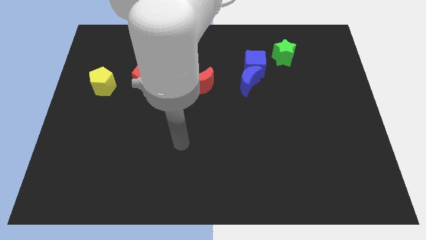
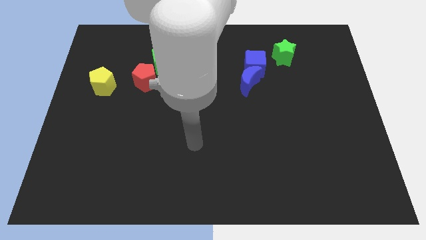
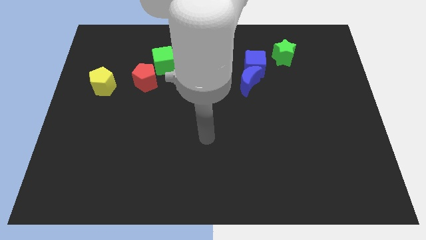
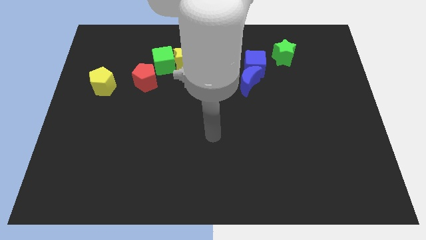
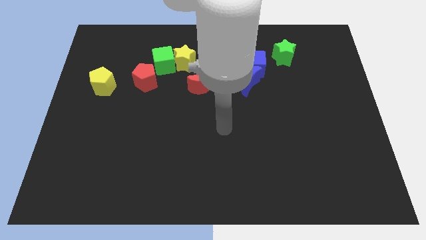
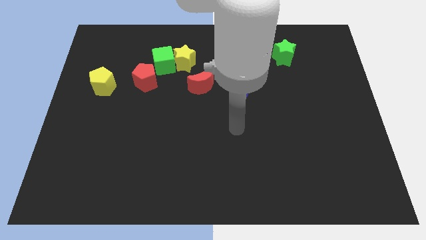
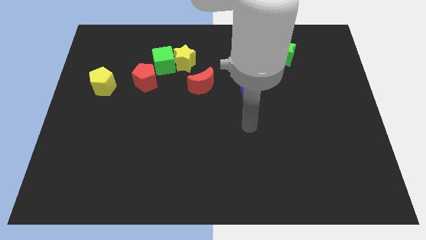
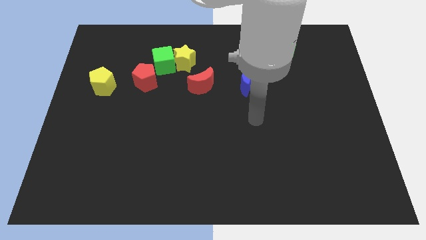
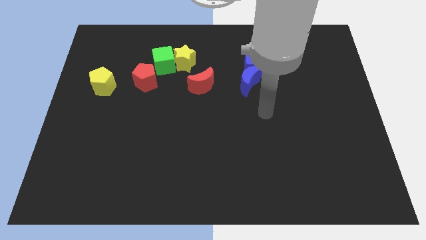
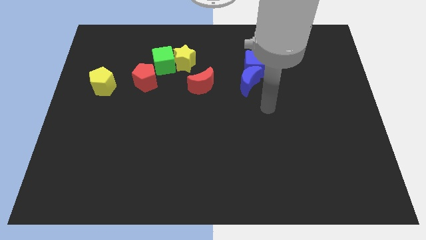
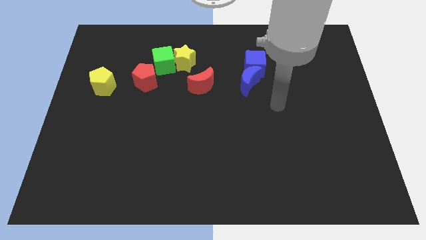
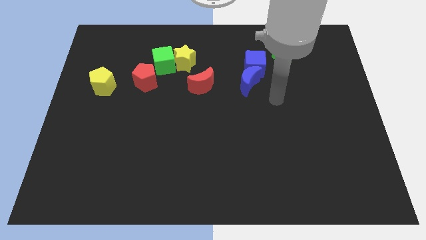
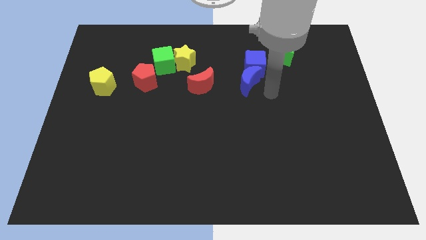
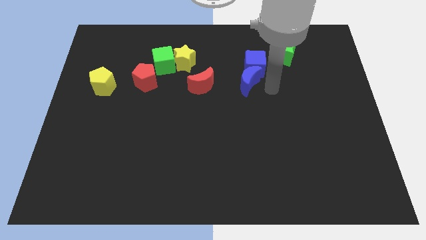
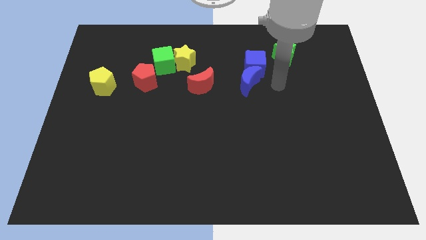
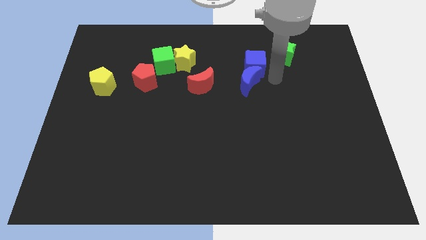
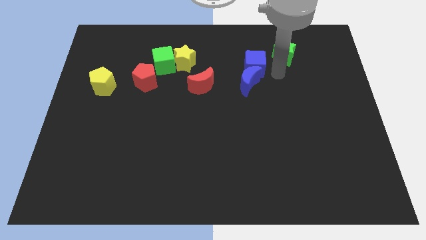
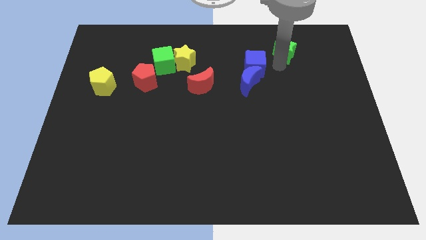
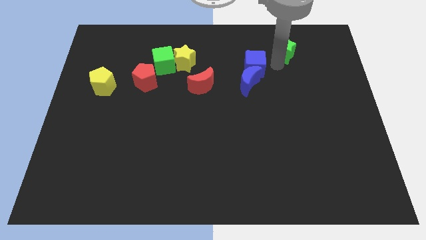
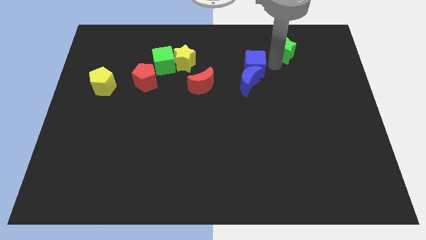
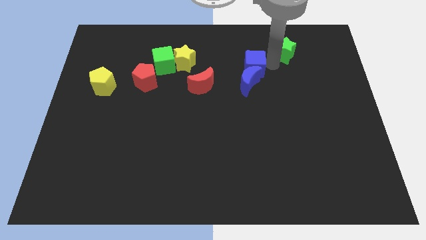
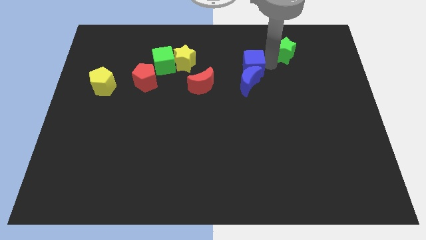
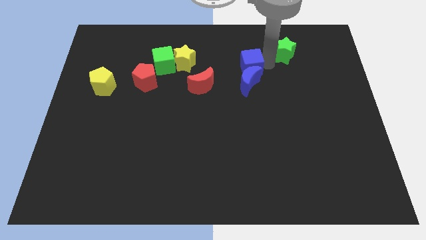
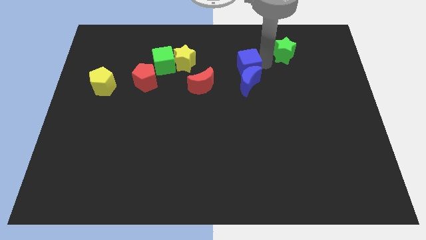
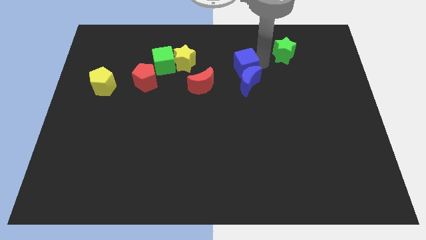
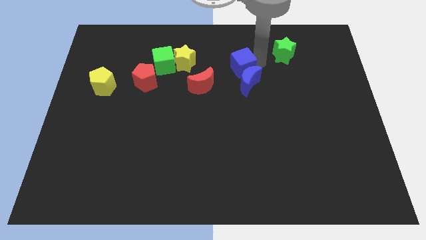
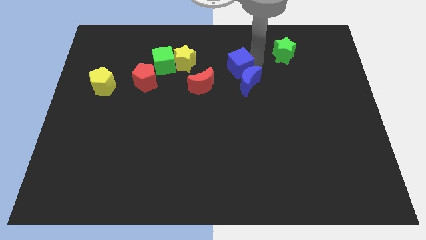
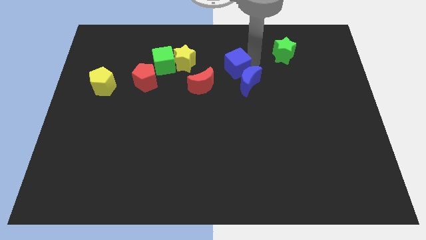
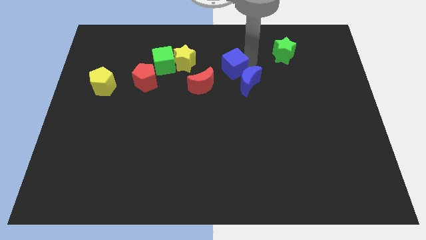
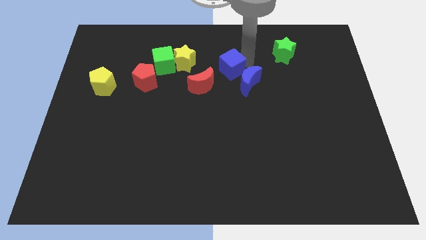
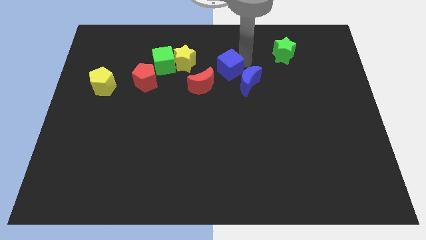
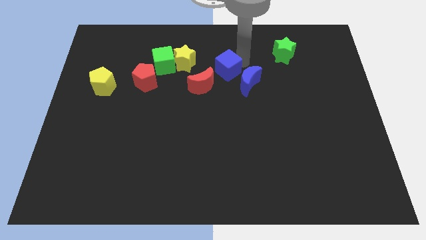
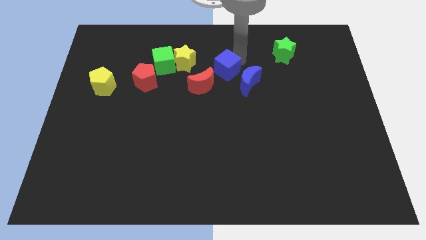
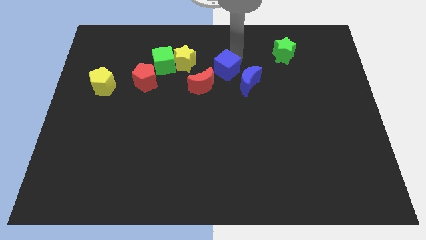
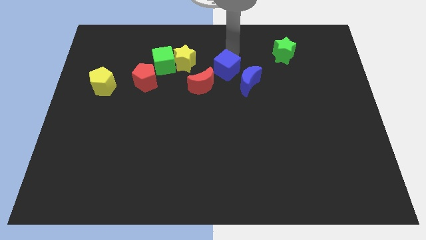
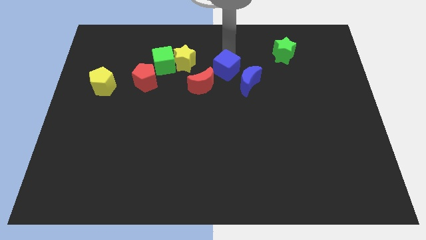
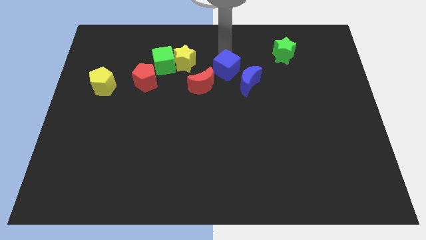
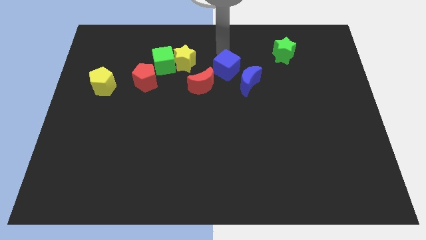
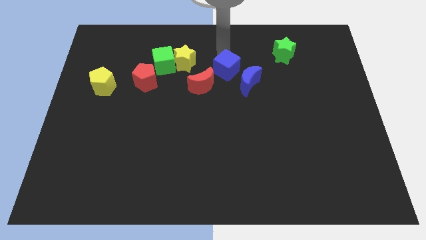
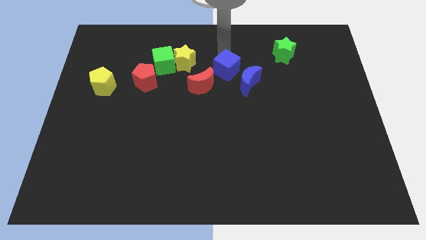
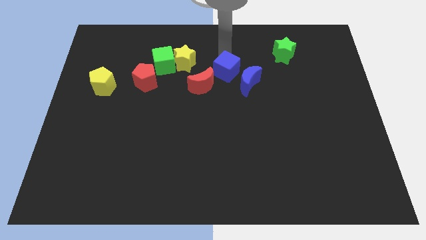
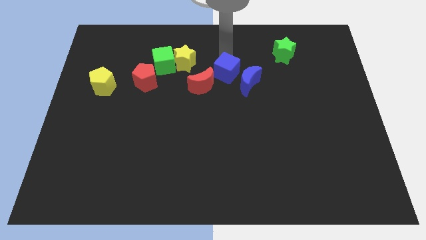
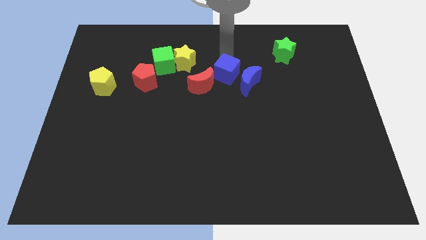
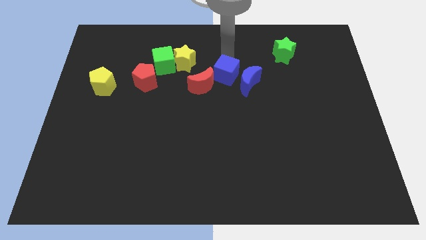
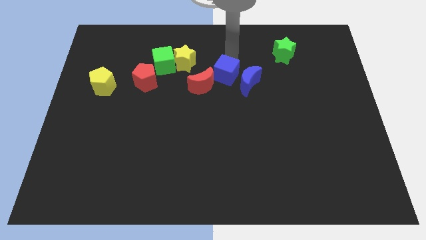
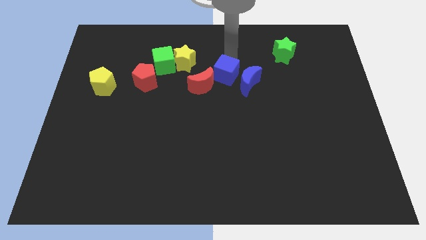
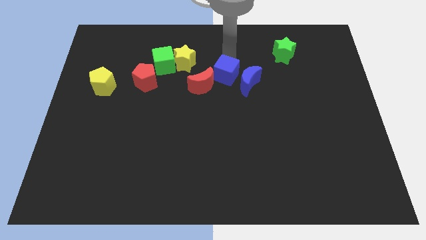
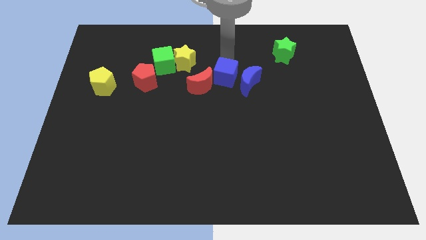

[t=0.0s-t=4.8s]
slide the blue cube somewhat down and then left

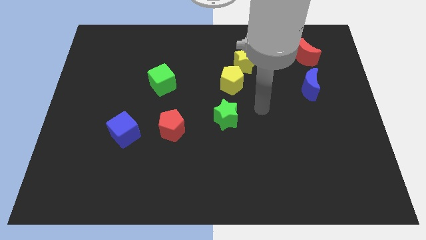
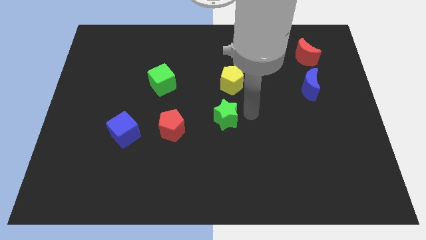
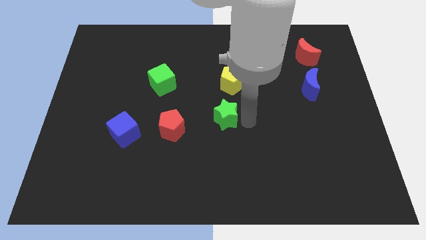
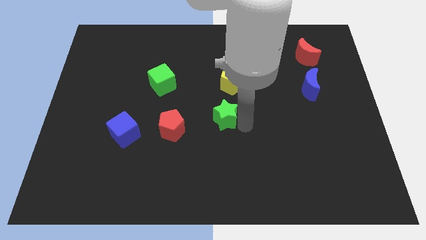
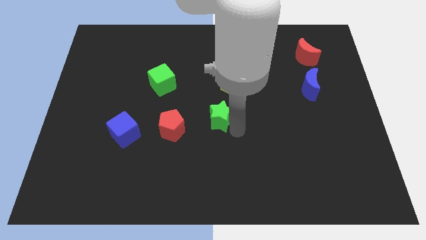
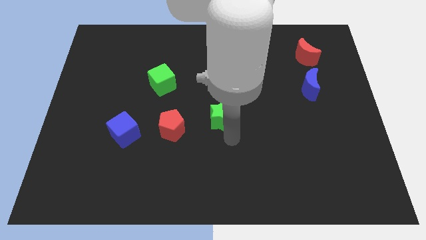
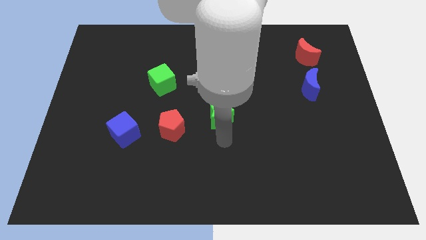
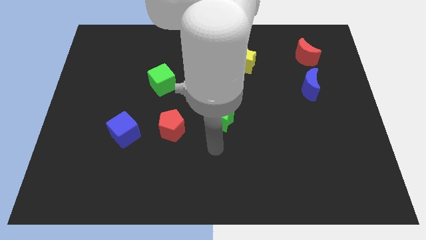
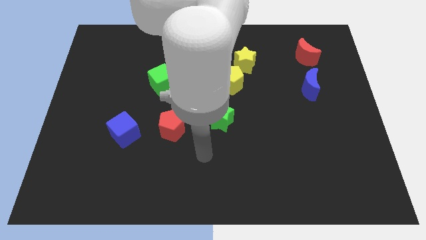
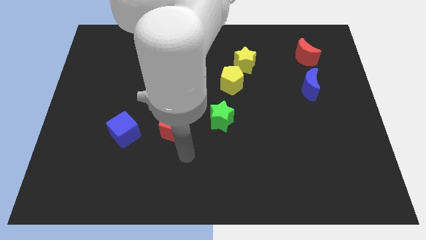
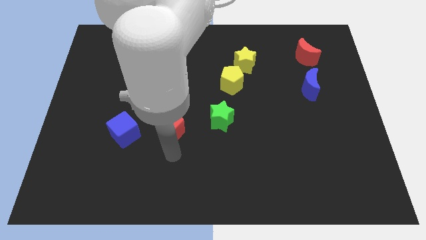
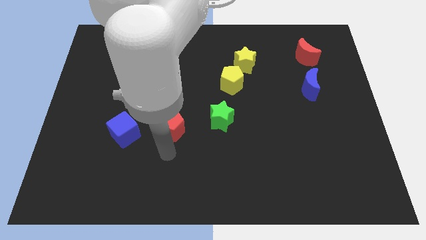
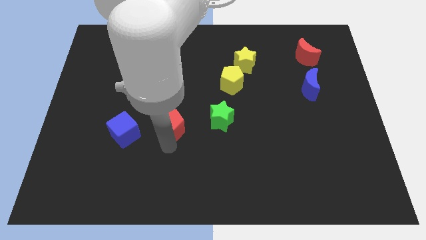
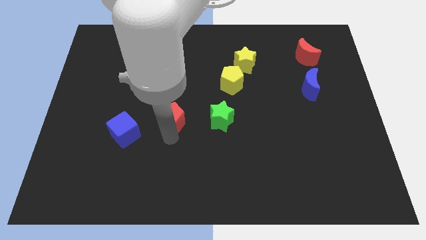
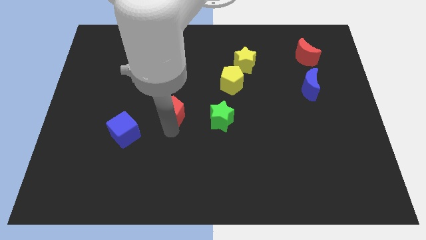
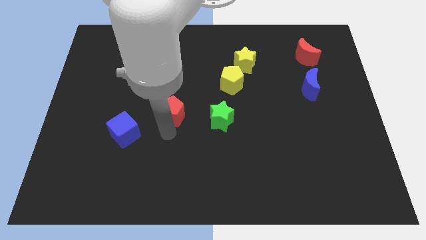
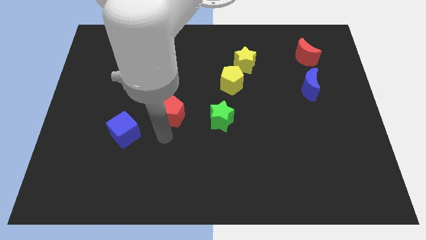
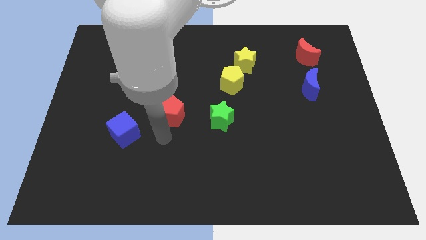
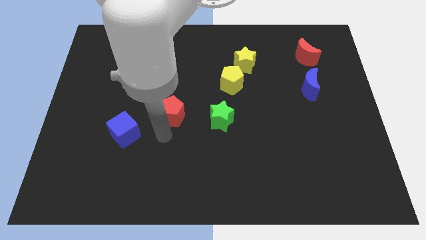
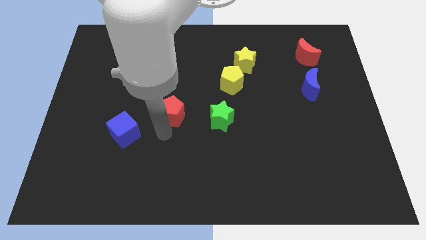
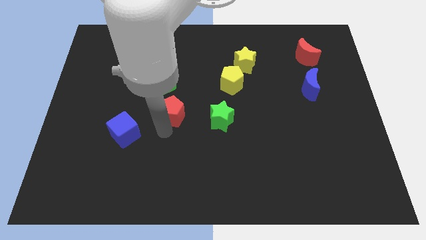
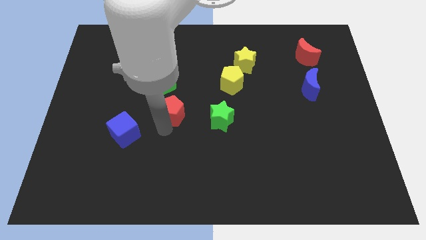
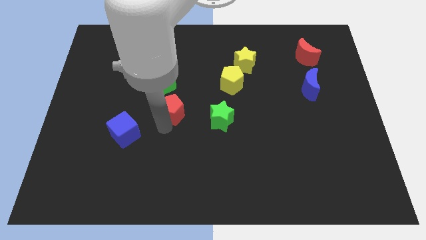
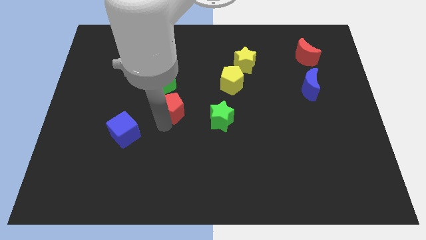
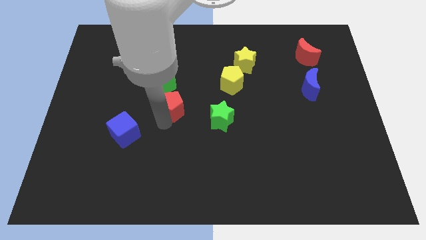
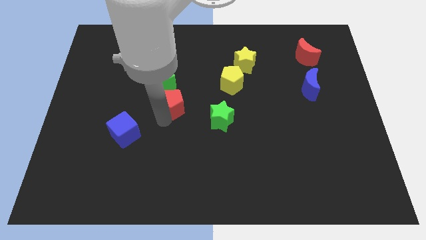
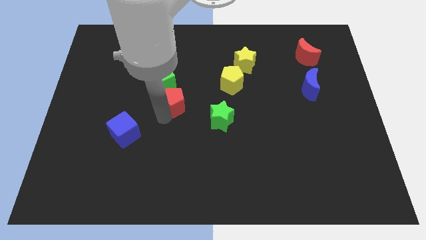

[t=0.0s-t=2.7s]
slightly push the red pentagon upwards

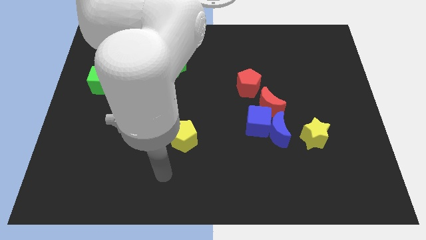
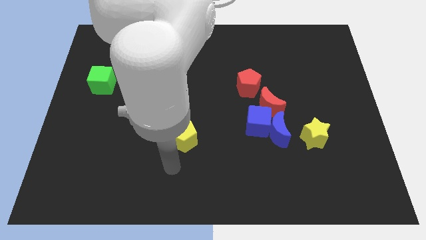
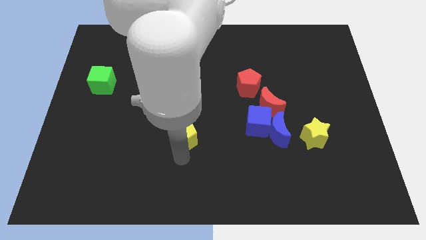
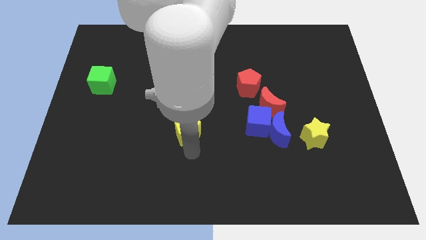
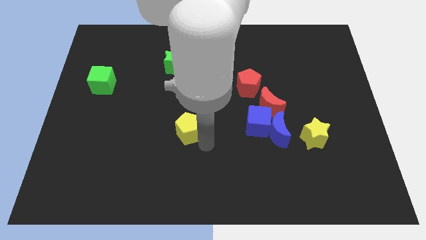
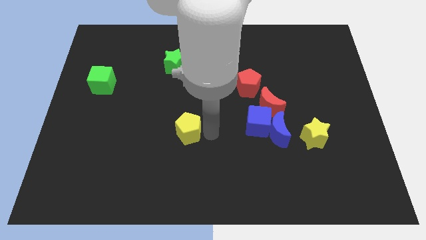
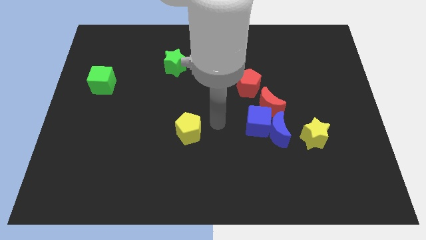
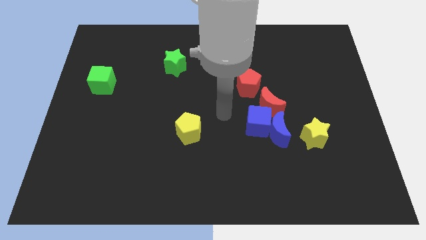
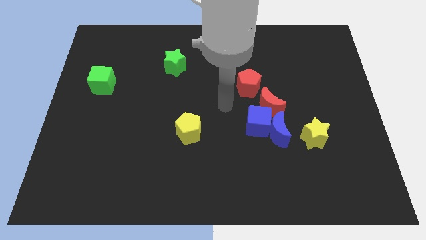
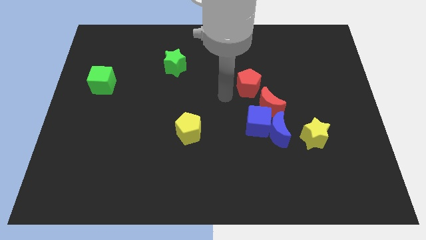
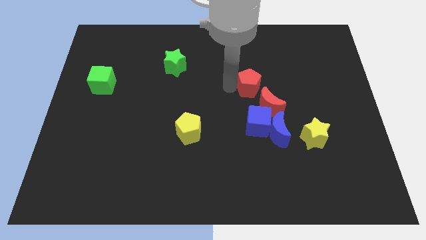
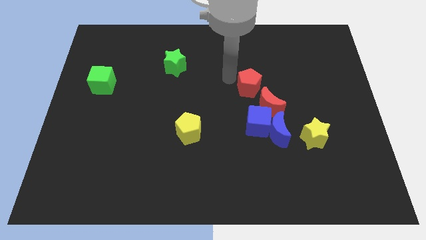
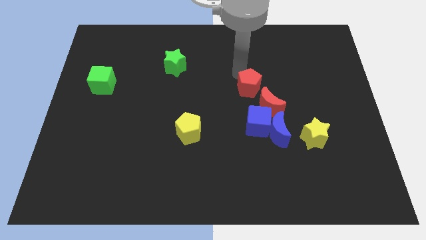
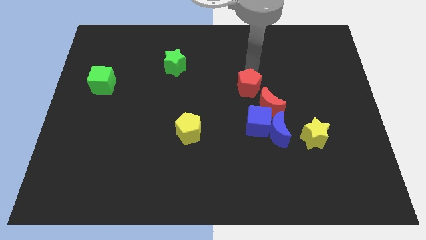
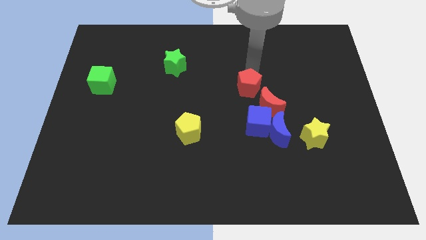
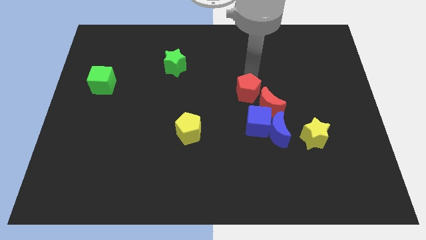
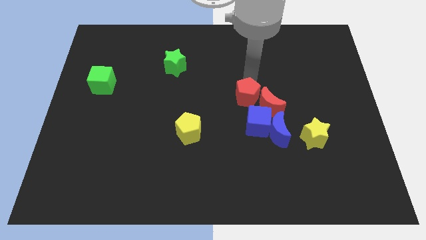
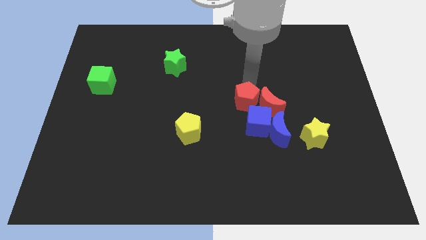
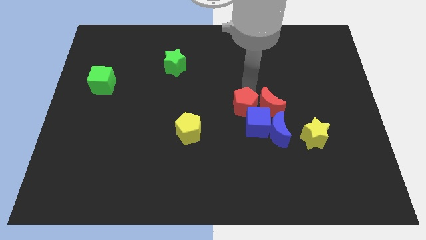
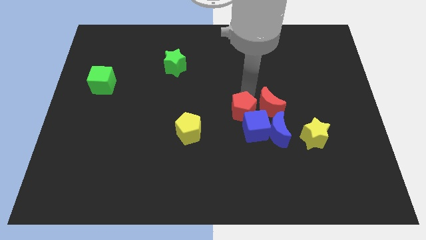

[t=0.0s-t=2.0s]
push the red pentagon down a bit
